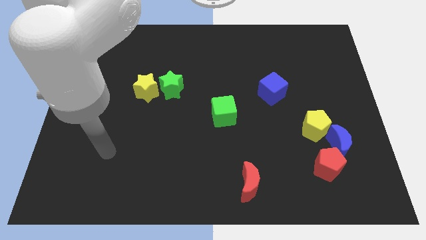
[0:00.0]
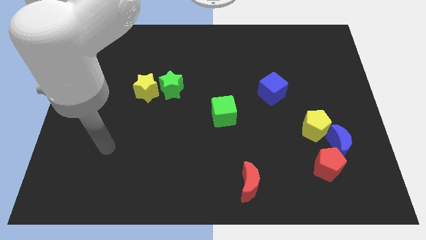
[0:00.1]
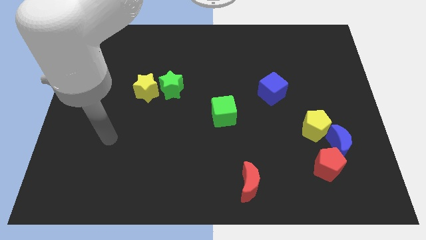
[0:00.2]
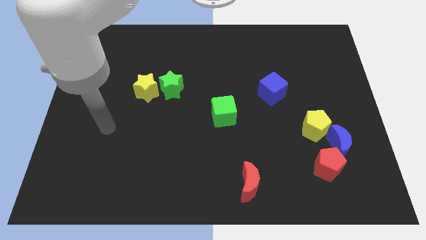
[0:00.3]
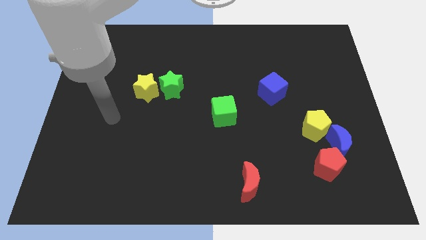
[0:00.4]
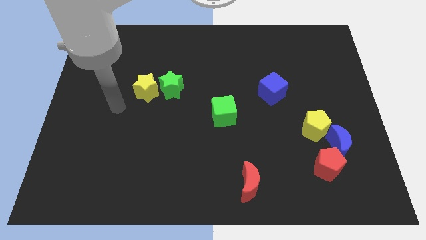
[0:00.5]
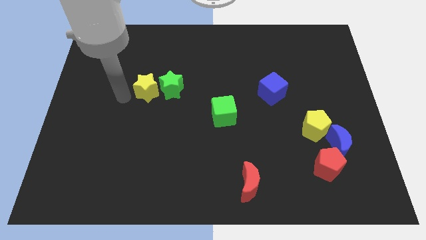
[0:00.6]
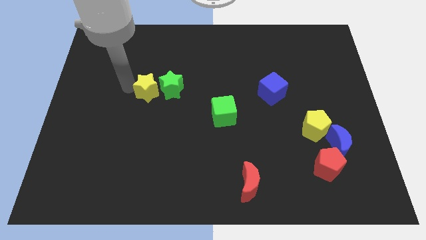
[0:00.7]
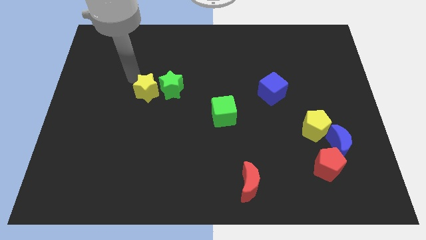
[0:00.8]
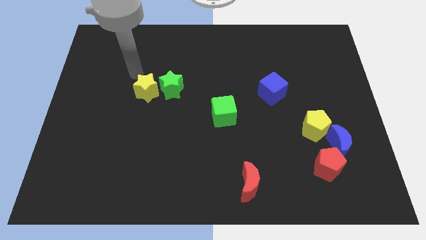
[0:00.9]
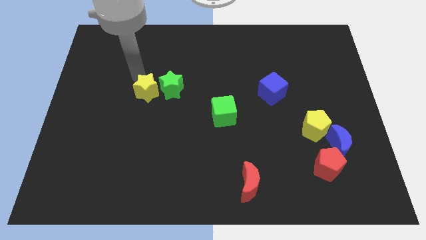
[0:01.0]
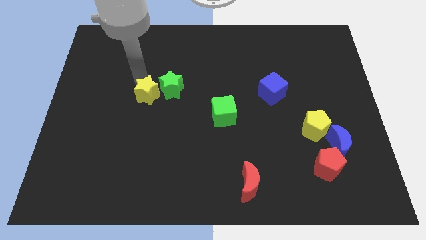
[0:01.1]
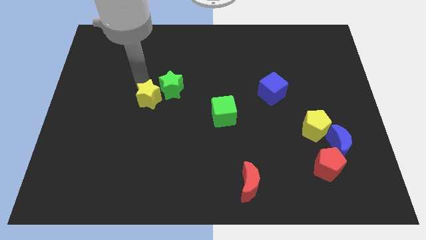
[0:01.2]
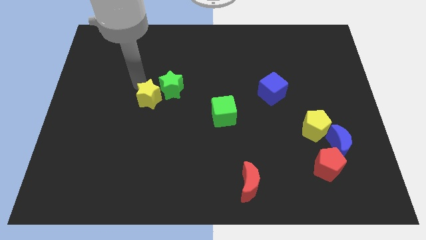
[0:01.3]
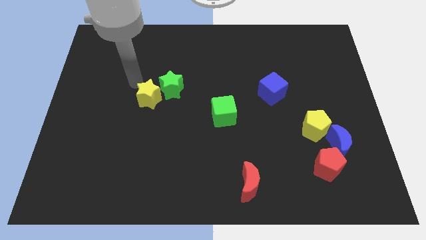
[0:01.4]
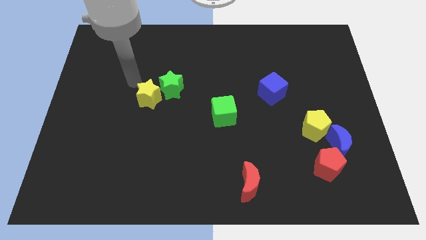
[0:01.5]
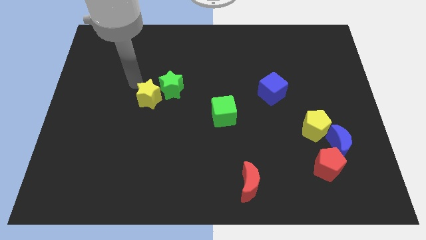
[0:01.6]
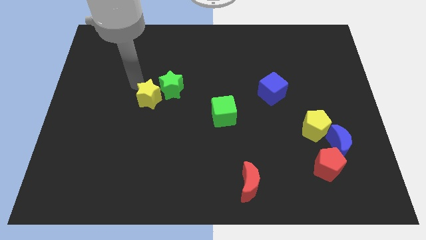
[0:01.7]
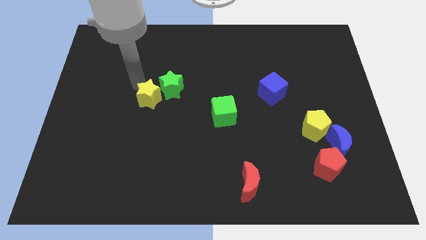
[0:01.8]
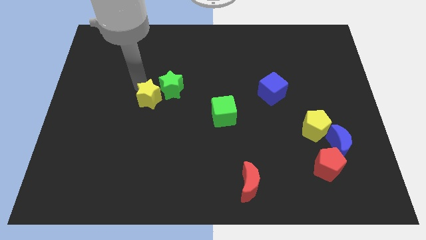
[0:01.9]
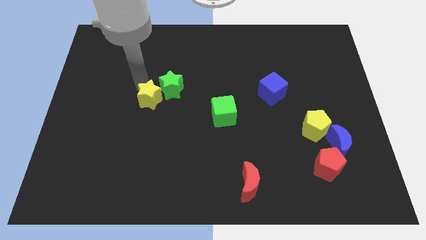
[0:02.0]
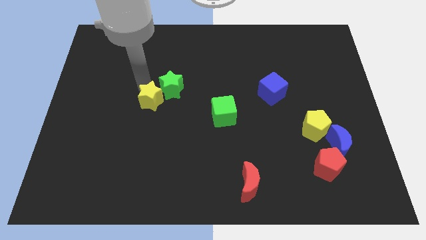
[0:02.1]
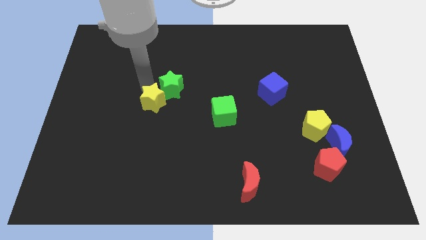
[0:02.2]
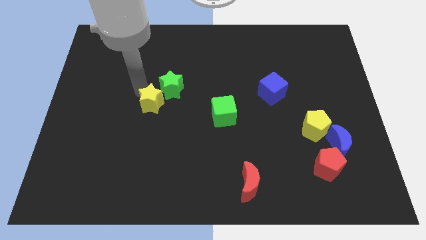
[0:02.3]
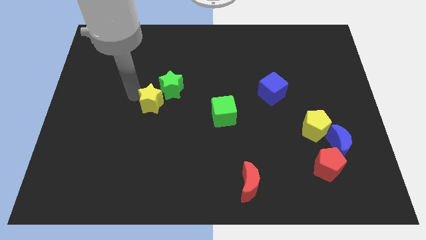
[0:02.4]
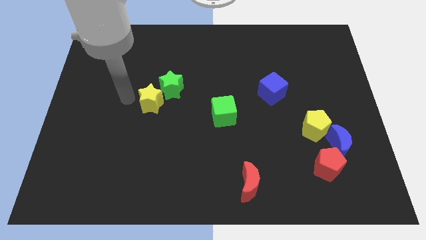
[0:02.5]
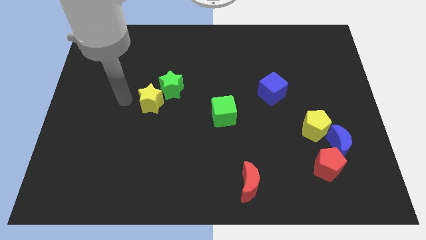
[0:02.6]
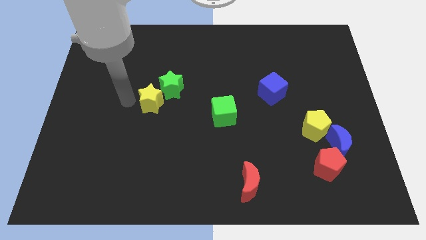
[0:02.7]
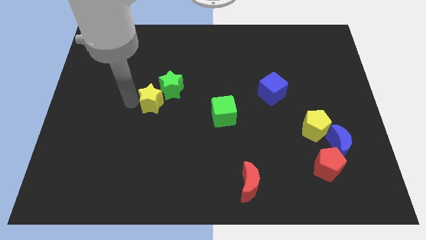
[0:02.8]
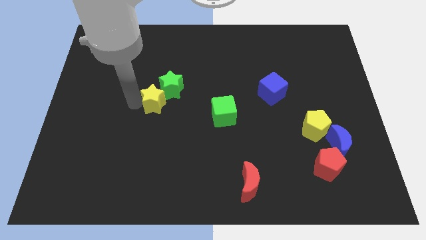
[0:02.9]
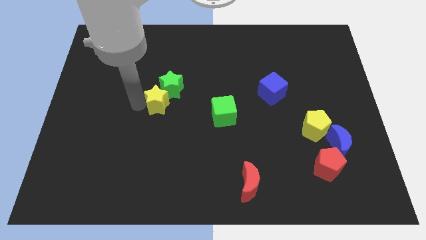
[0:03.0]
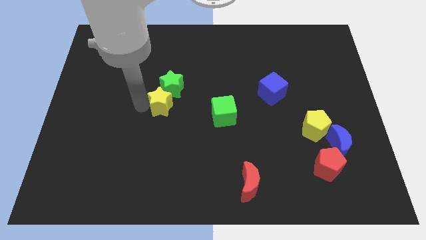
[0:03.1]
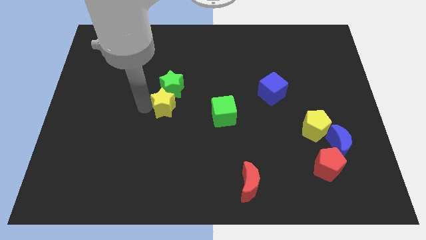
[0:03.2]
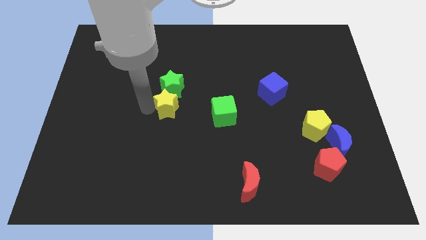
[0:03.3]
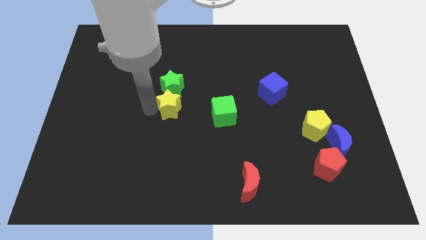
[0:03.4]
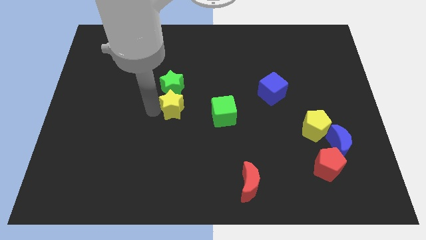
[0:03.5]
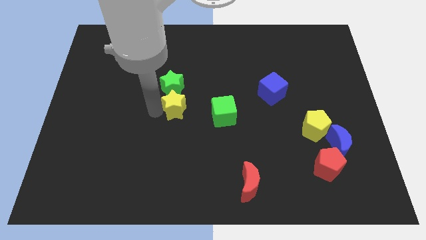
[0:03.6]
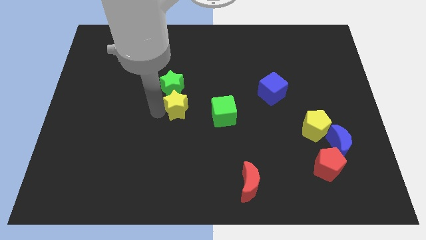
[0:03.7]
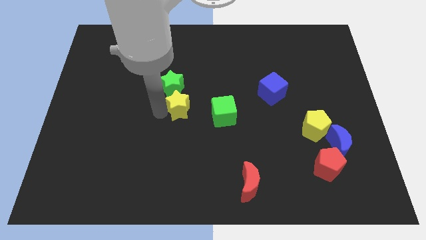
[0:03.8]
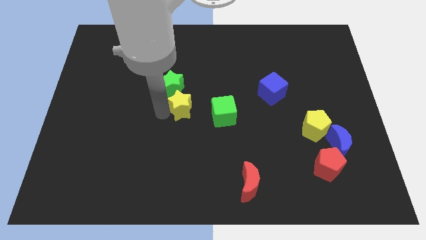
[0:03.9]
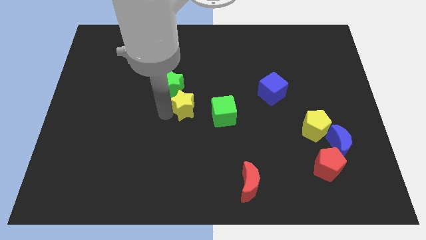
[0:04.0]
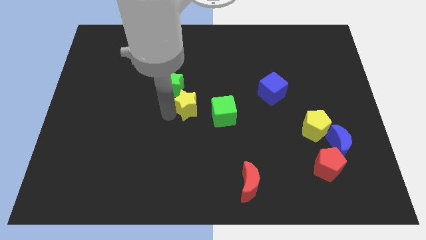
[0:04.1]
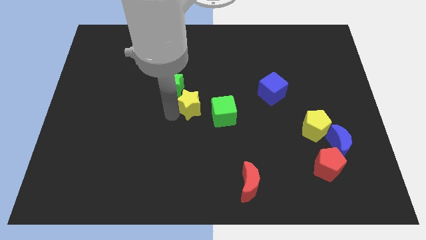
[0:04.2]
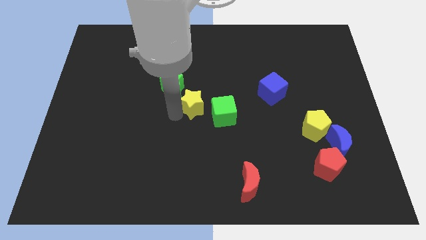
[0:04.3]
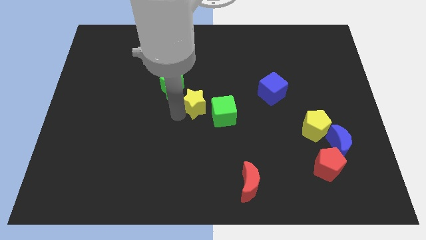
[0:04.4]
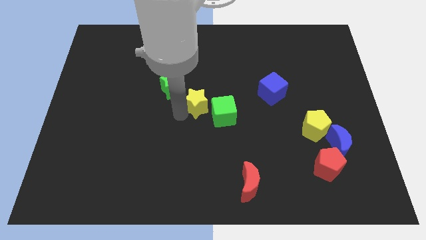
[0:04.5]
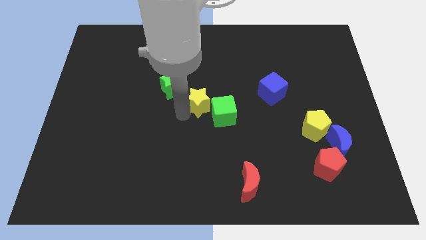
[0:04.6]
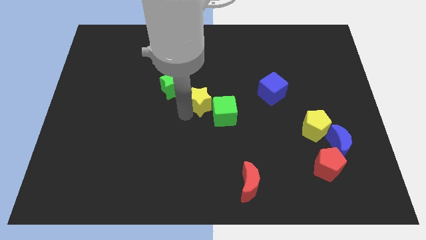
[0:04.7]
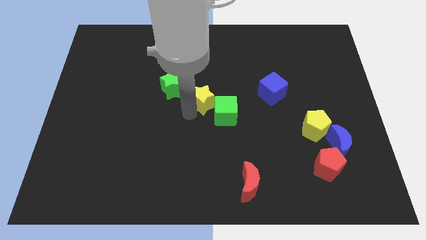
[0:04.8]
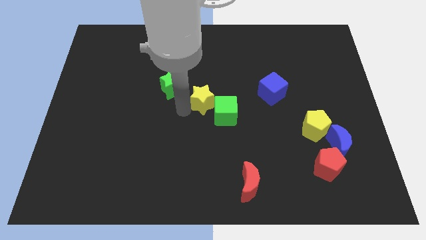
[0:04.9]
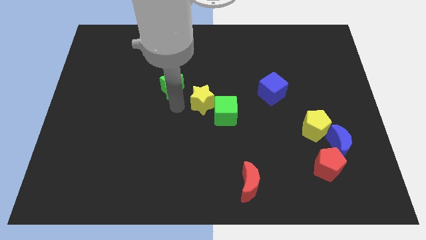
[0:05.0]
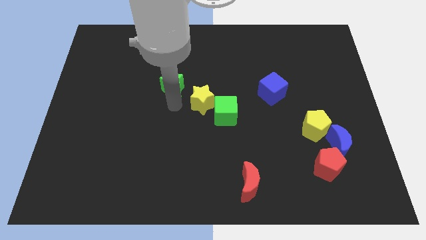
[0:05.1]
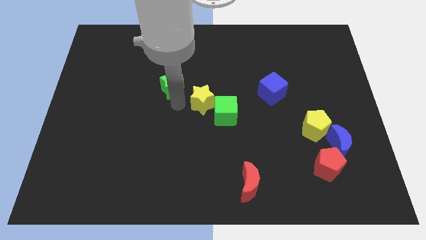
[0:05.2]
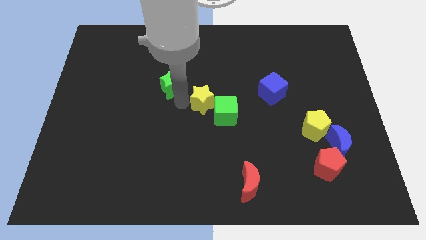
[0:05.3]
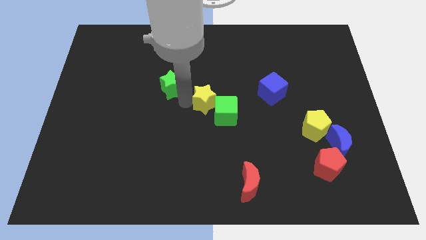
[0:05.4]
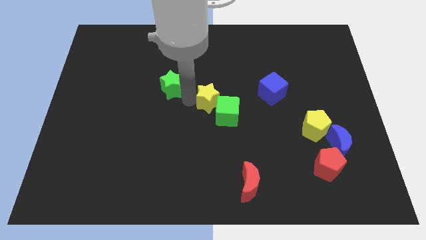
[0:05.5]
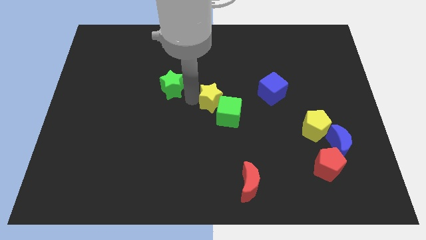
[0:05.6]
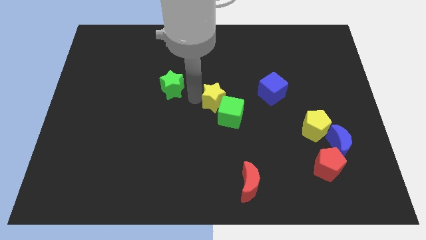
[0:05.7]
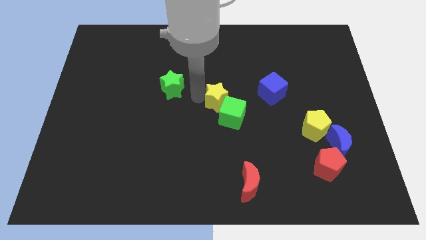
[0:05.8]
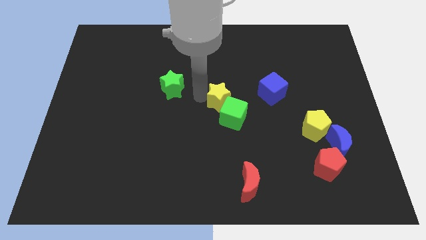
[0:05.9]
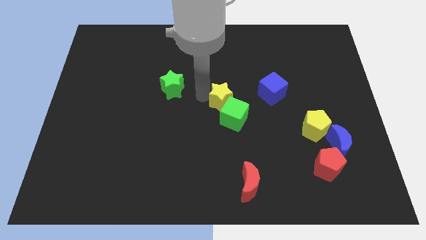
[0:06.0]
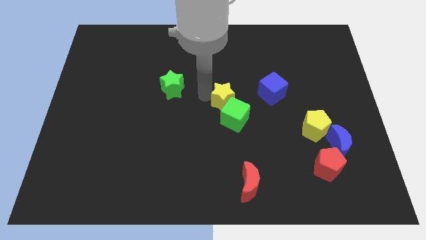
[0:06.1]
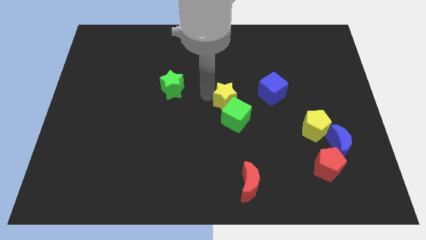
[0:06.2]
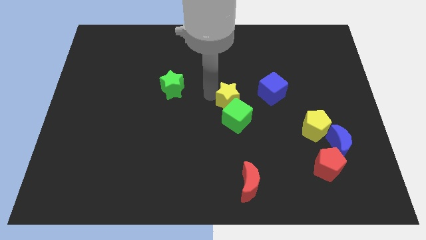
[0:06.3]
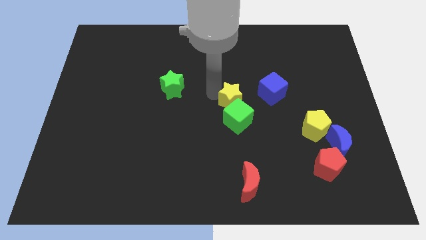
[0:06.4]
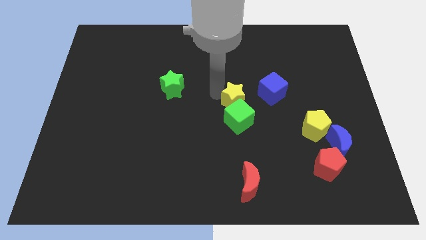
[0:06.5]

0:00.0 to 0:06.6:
put the yellow star diagonally down and to the left of the blue cube

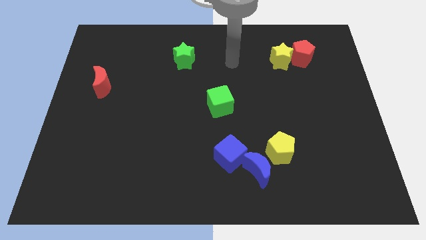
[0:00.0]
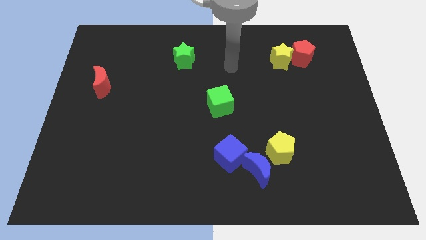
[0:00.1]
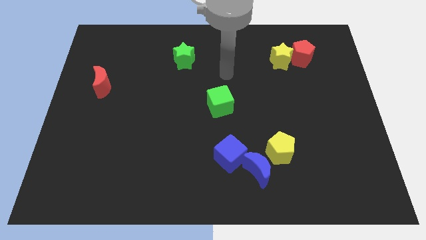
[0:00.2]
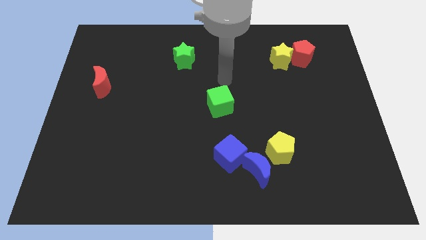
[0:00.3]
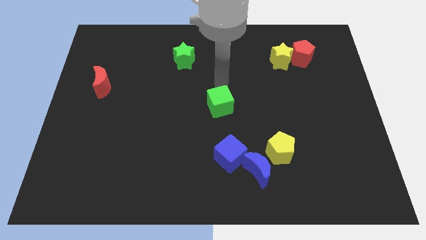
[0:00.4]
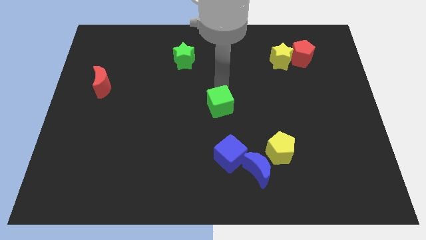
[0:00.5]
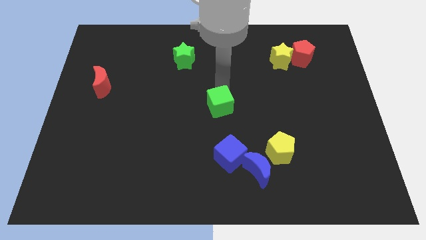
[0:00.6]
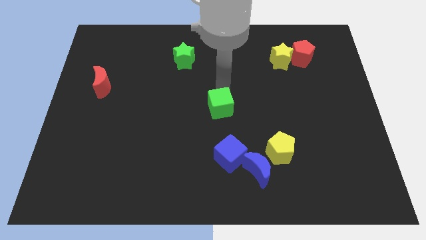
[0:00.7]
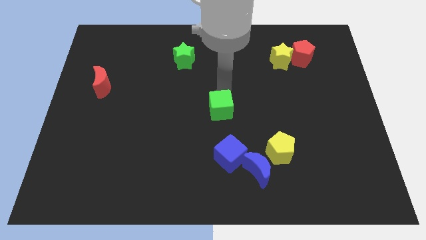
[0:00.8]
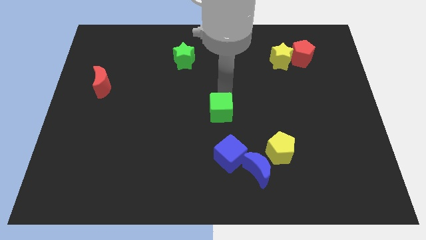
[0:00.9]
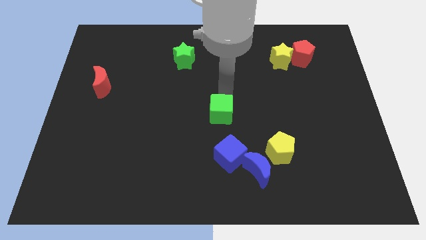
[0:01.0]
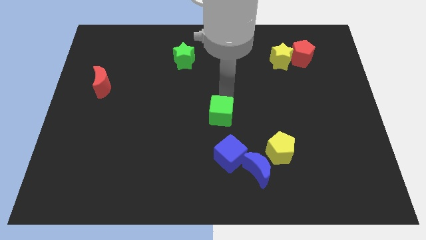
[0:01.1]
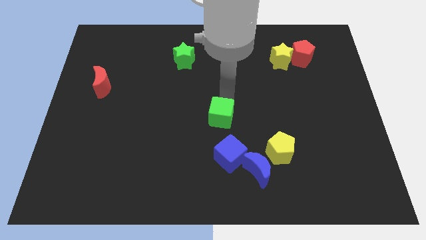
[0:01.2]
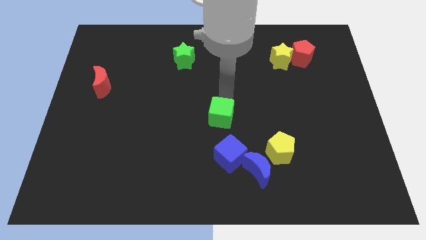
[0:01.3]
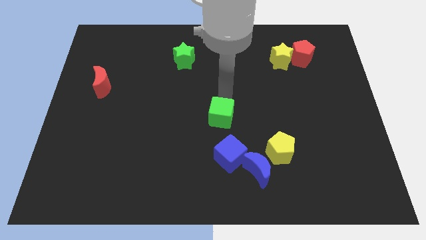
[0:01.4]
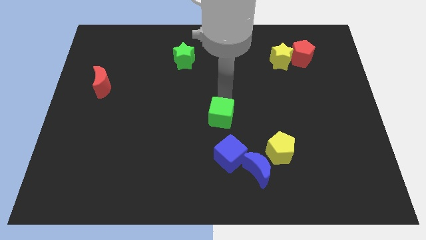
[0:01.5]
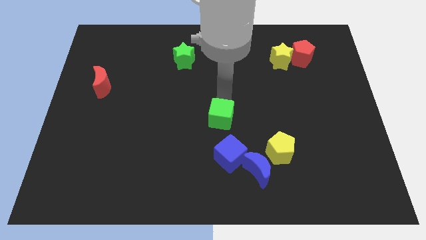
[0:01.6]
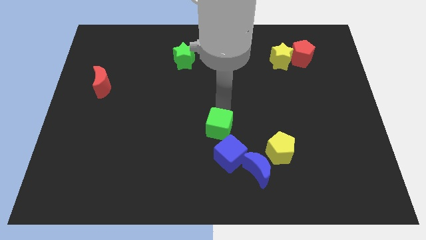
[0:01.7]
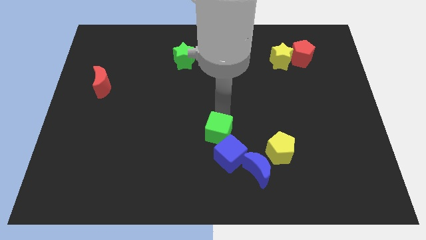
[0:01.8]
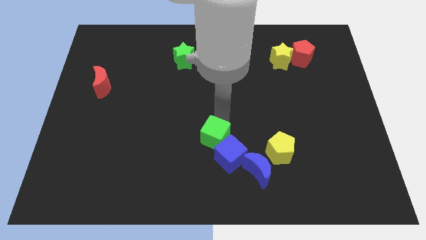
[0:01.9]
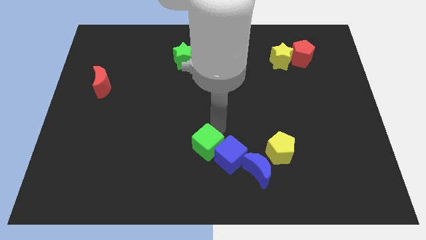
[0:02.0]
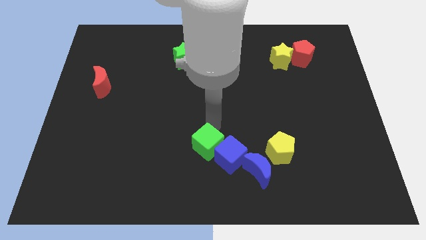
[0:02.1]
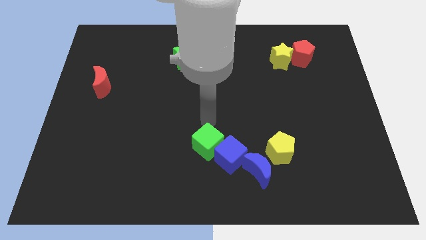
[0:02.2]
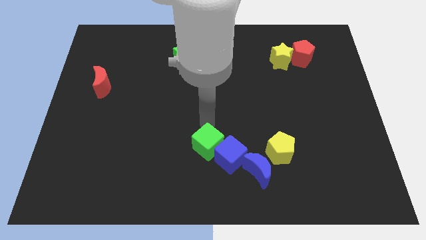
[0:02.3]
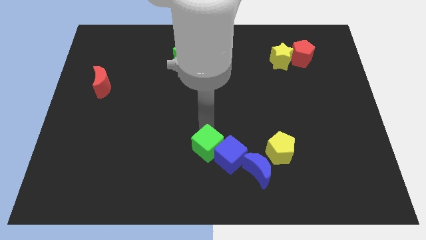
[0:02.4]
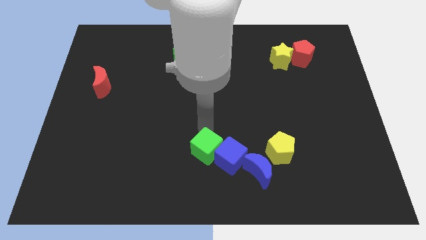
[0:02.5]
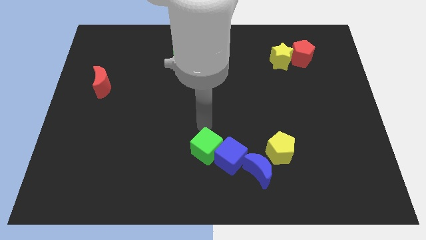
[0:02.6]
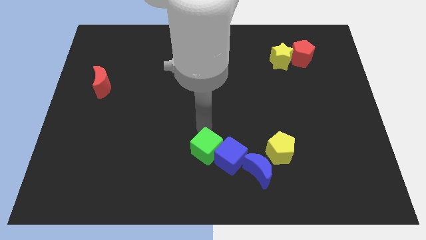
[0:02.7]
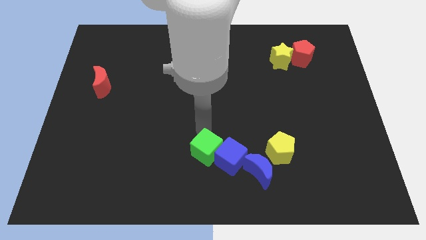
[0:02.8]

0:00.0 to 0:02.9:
put the green cube just left of the blue moon
